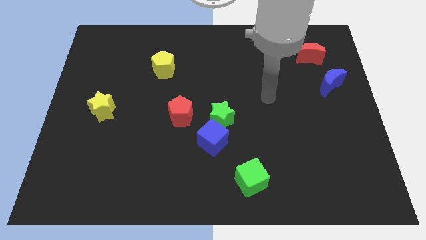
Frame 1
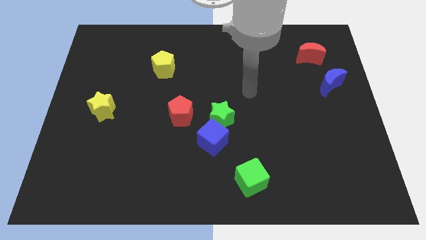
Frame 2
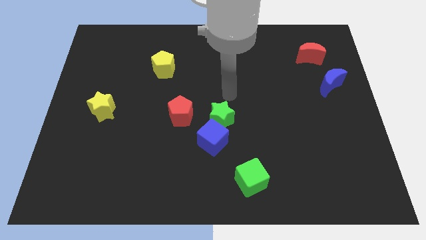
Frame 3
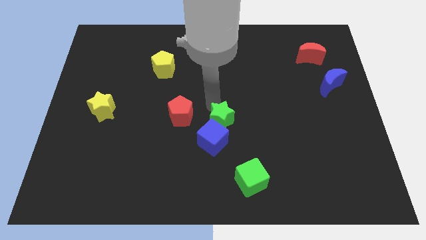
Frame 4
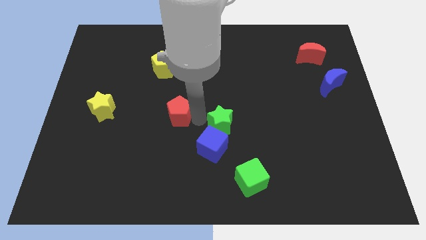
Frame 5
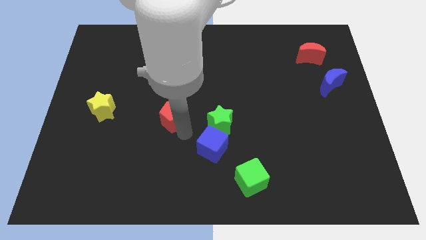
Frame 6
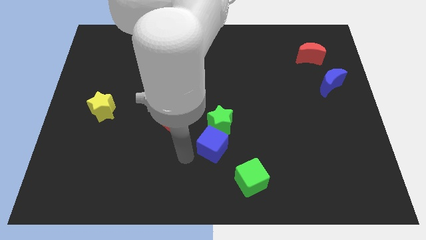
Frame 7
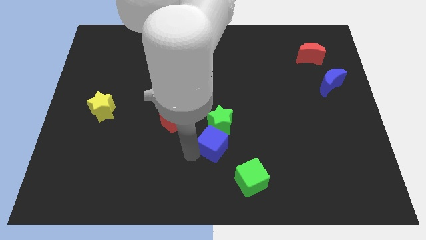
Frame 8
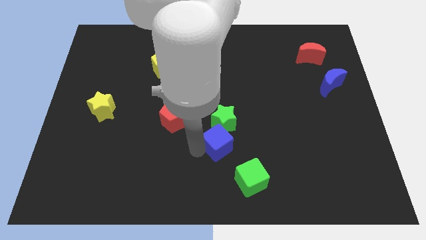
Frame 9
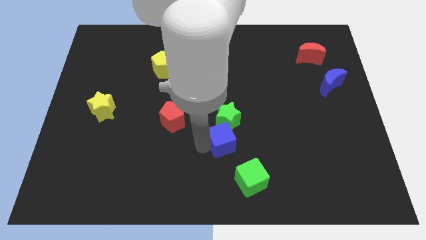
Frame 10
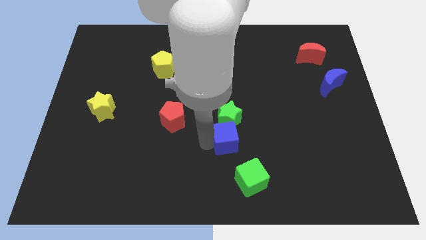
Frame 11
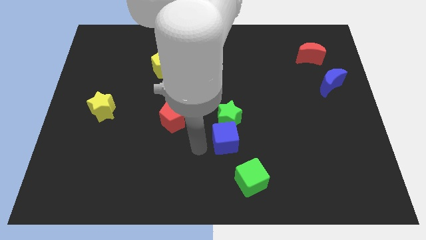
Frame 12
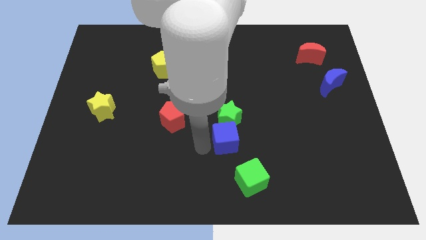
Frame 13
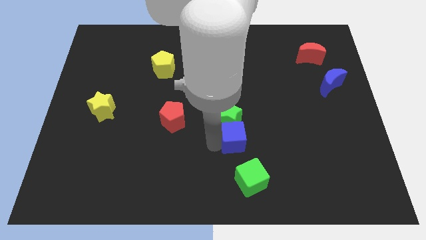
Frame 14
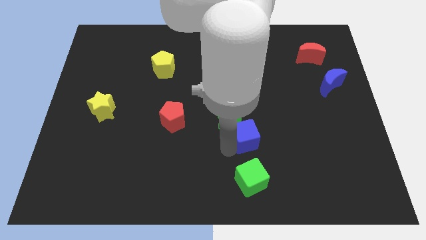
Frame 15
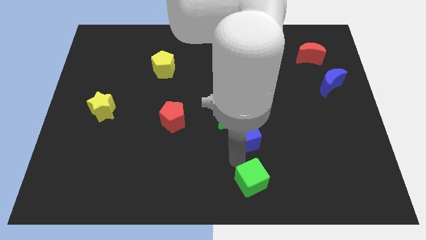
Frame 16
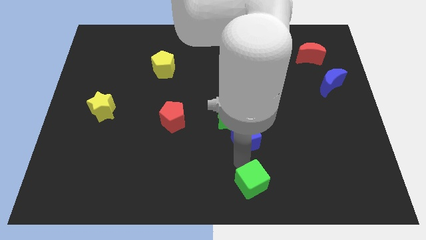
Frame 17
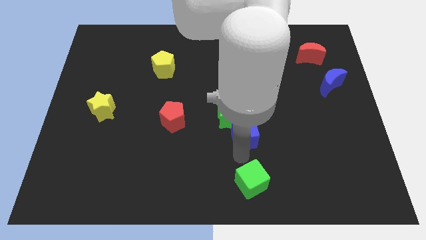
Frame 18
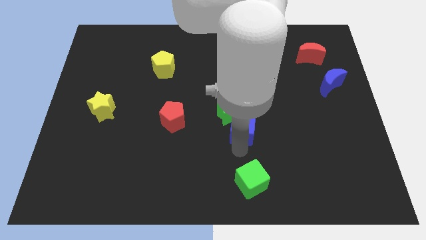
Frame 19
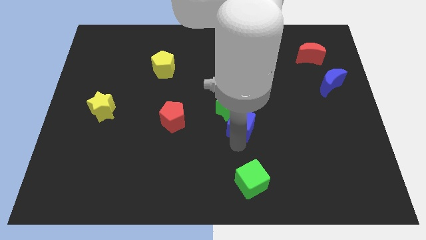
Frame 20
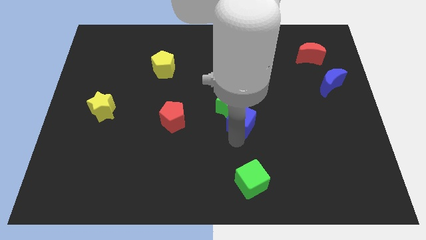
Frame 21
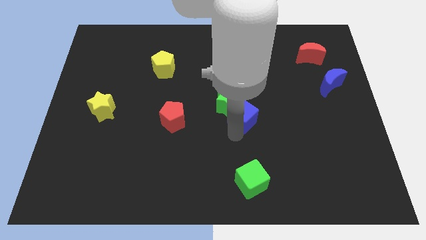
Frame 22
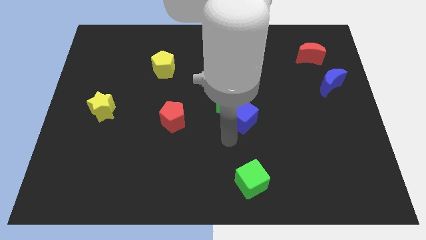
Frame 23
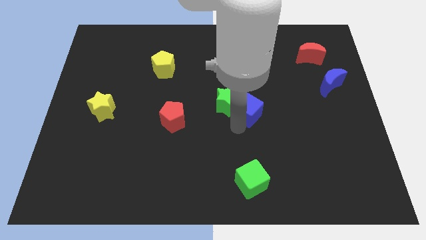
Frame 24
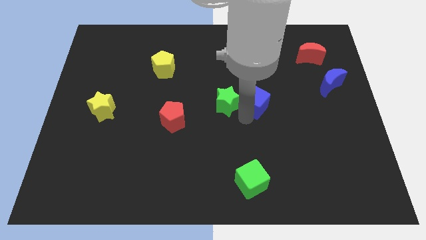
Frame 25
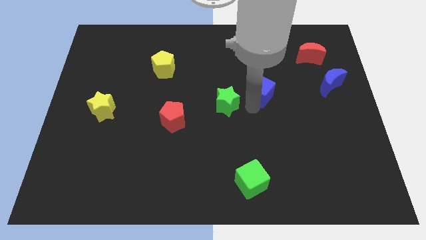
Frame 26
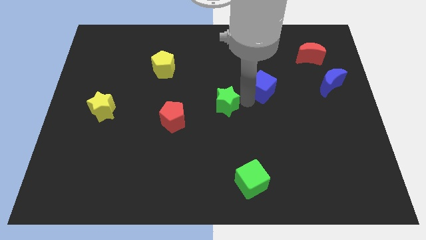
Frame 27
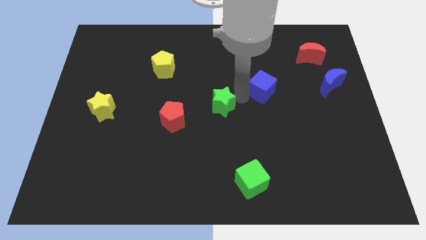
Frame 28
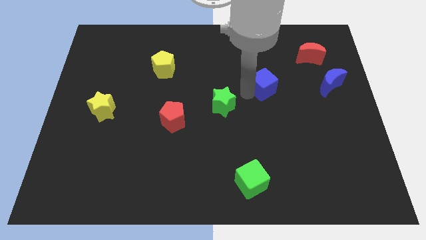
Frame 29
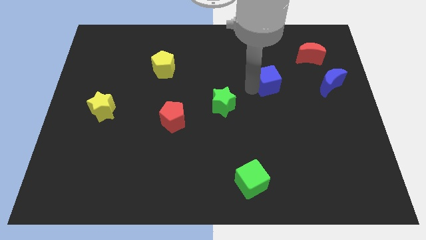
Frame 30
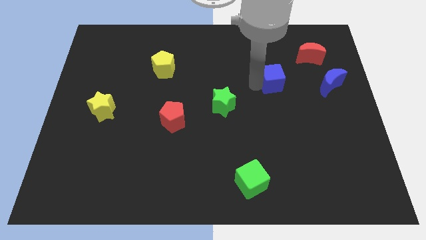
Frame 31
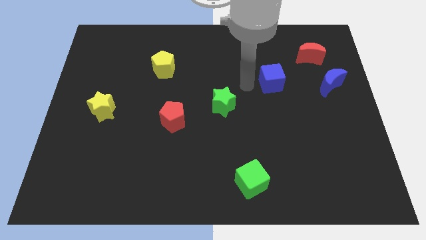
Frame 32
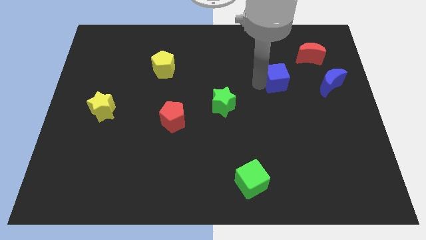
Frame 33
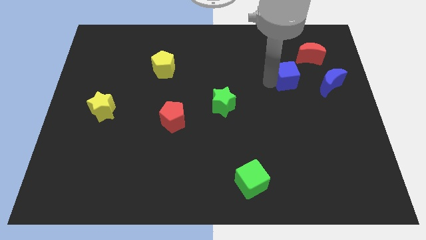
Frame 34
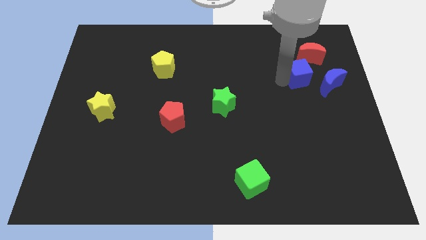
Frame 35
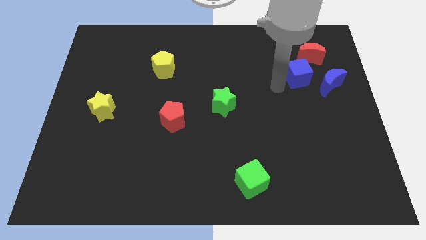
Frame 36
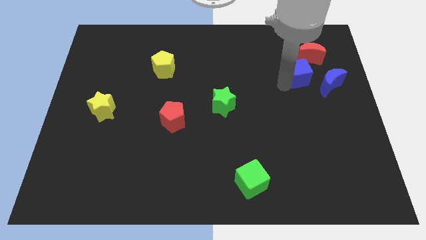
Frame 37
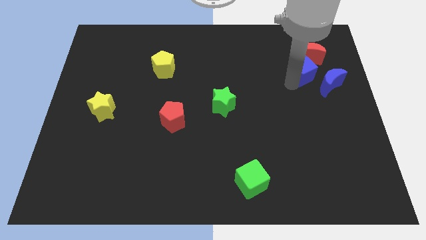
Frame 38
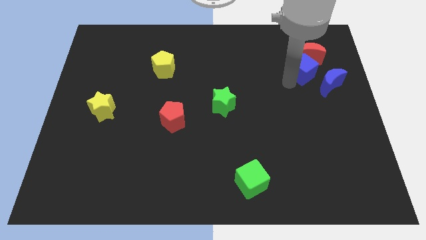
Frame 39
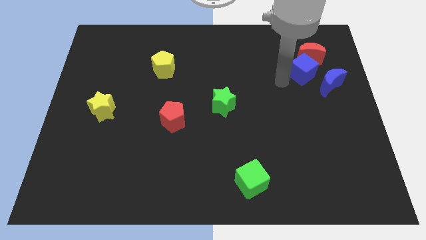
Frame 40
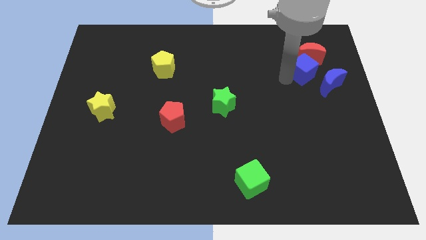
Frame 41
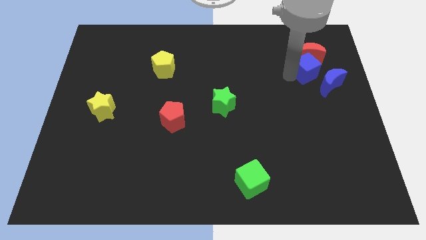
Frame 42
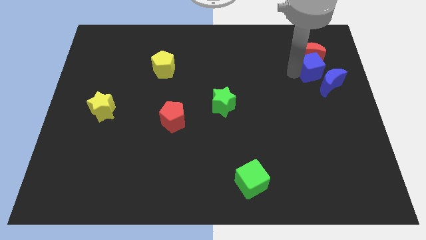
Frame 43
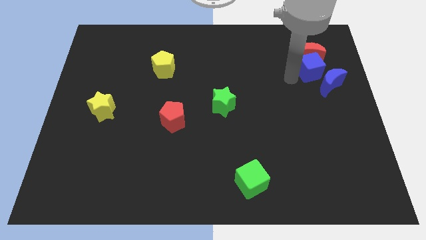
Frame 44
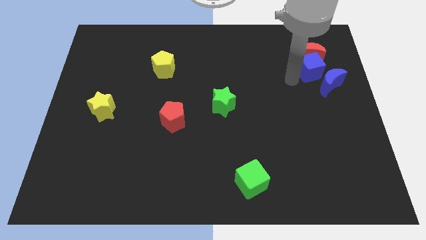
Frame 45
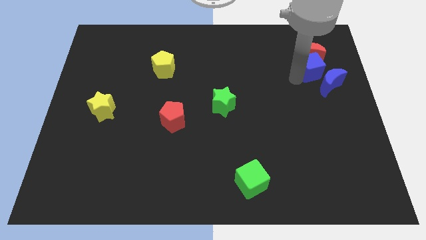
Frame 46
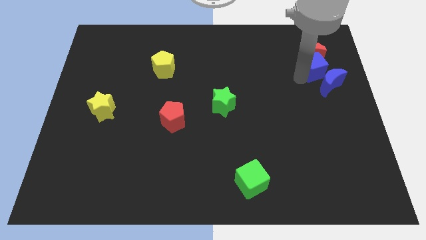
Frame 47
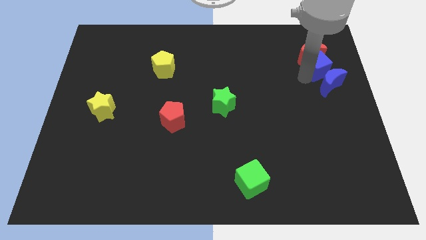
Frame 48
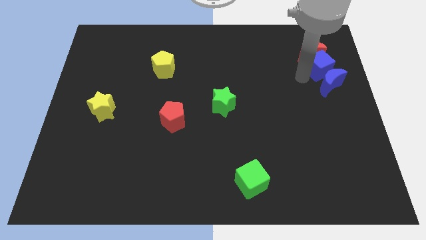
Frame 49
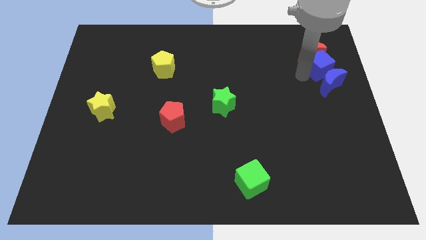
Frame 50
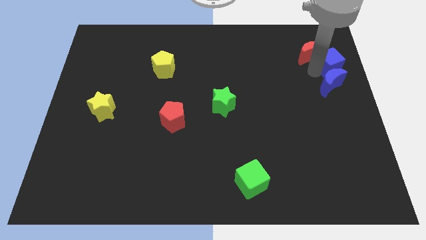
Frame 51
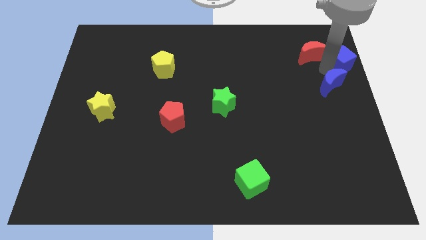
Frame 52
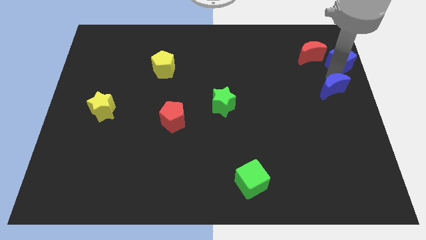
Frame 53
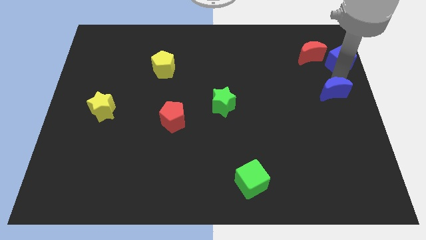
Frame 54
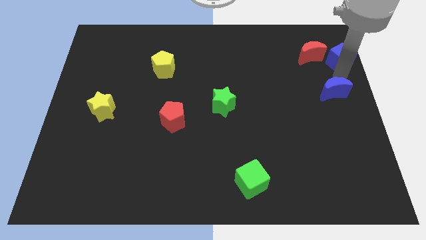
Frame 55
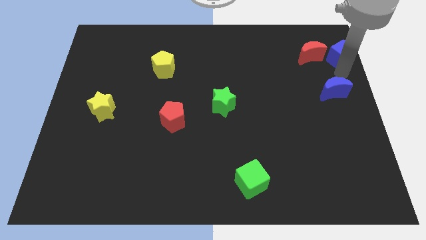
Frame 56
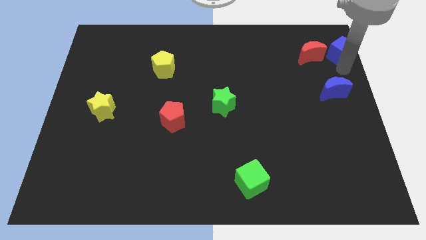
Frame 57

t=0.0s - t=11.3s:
move the blue cube to the top right
